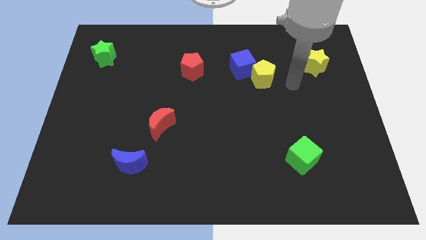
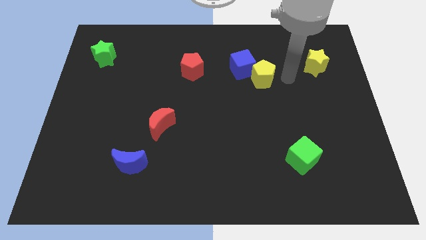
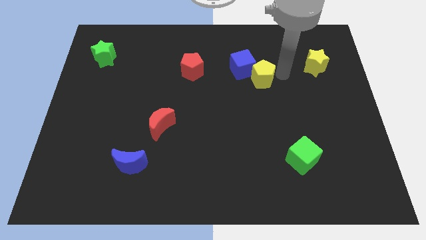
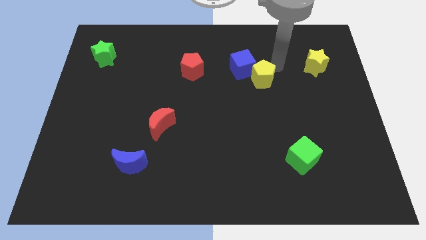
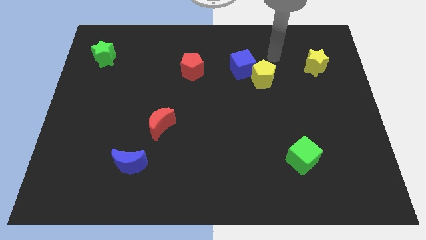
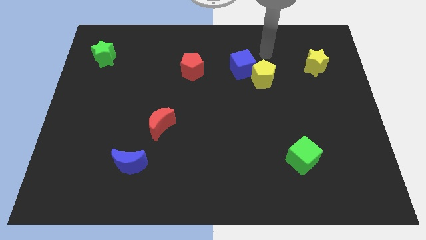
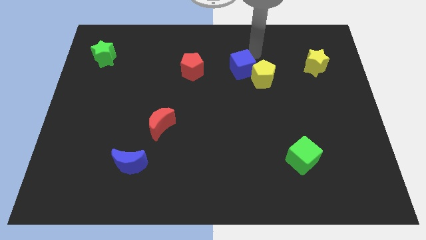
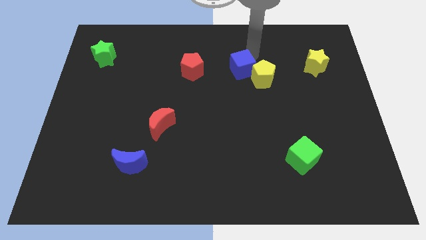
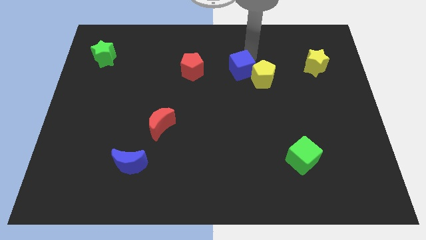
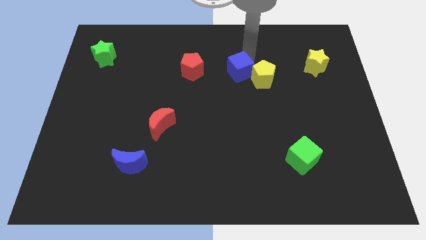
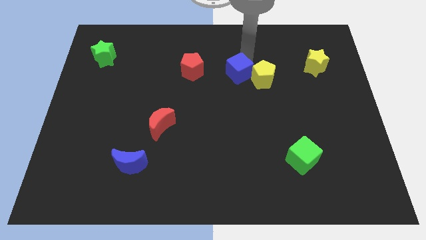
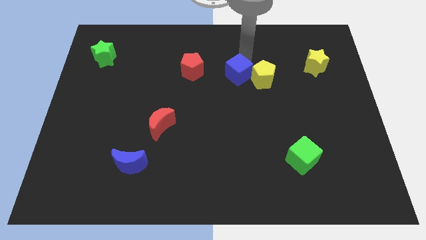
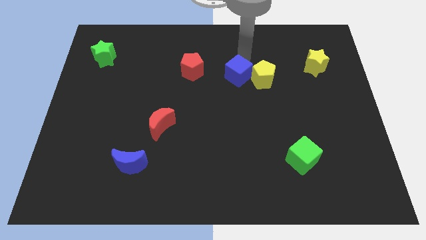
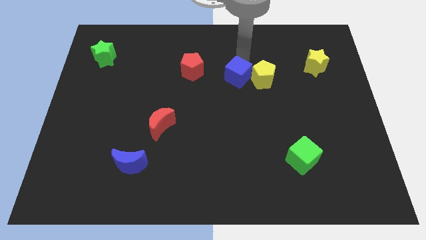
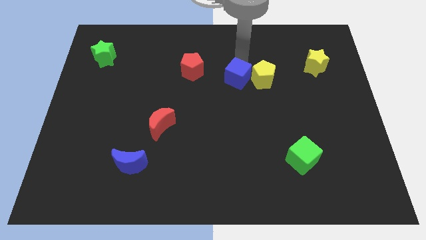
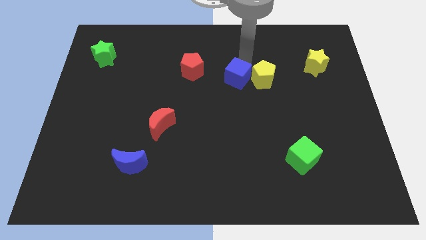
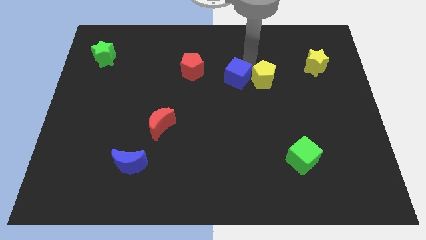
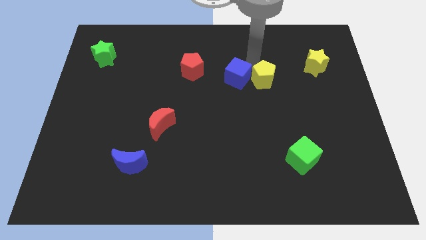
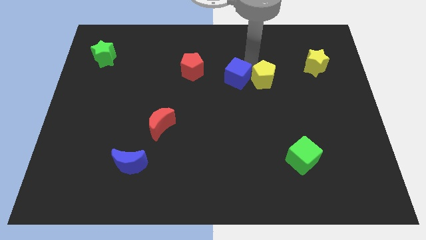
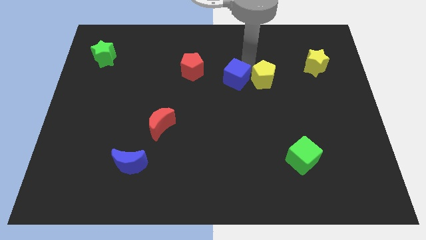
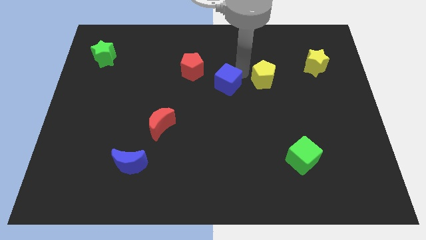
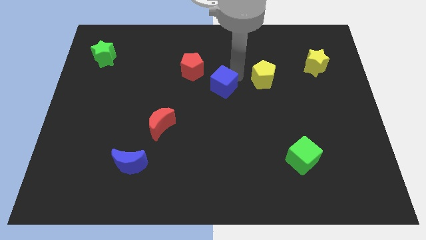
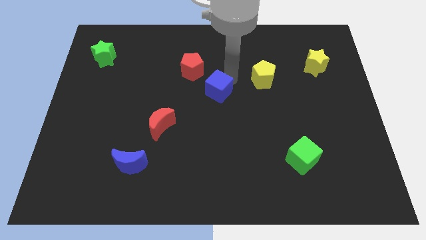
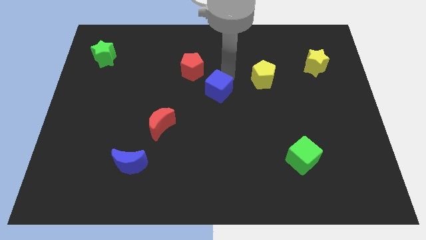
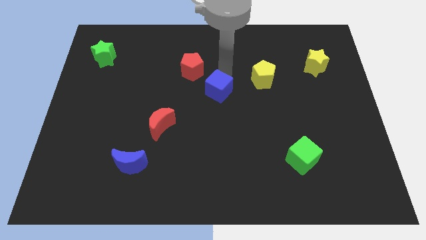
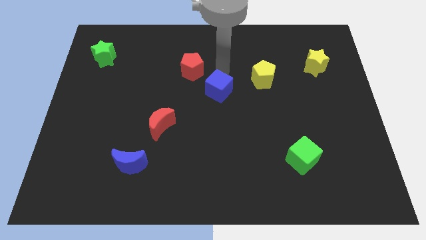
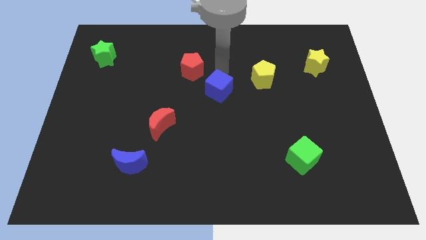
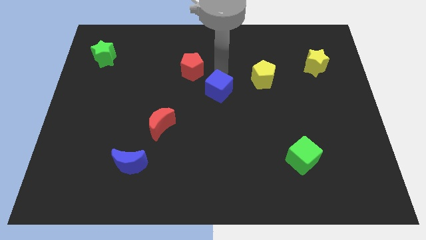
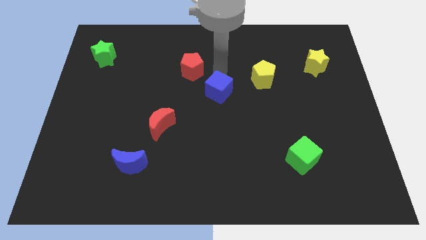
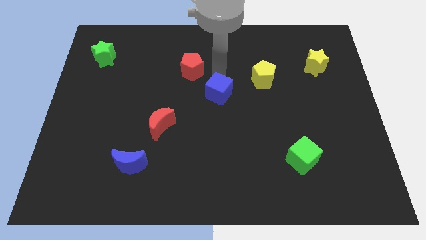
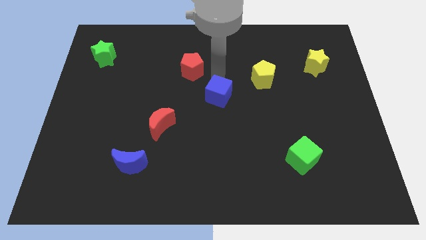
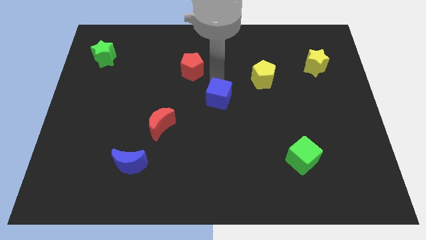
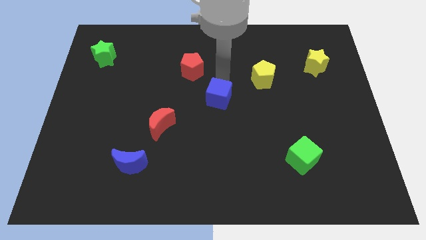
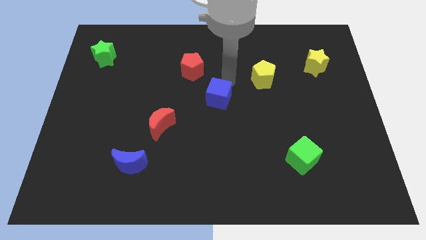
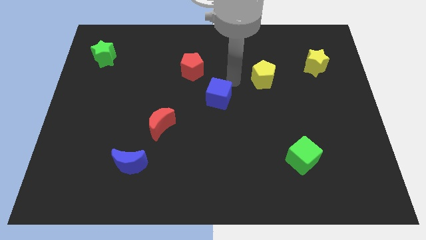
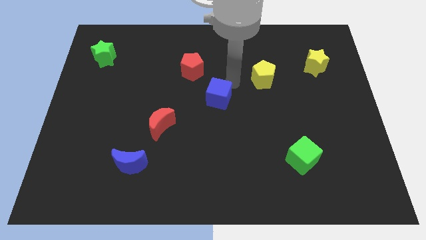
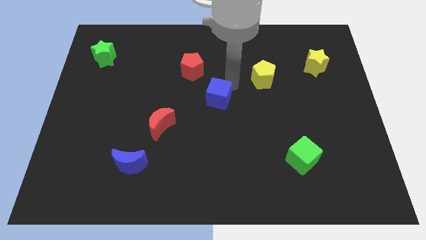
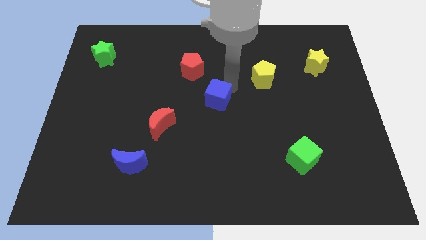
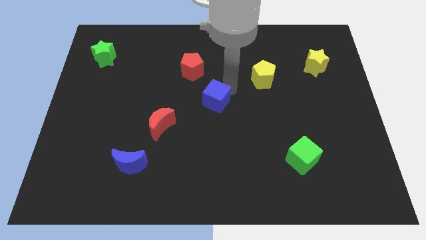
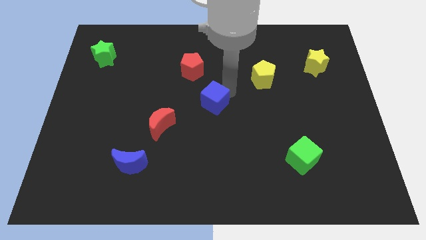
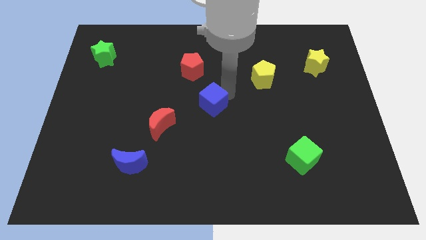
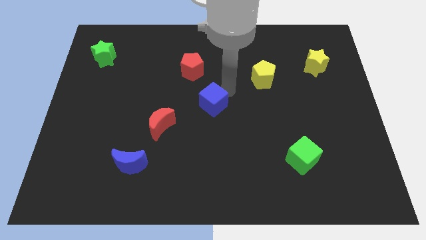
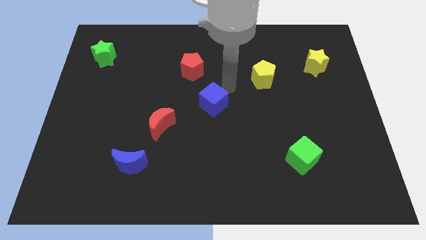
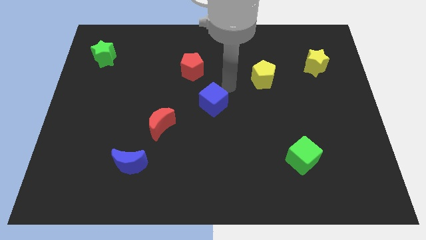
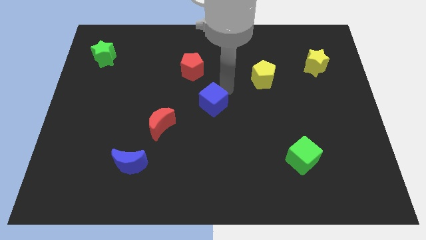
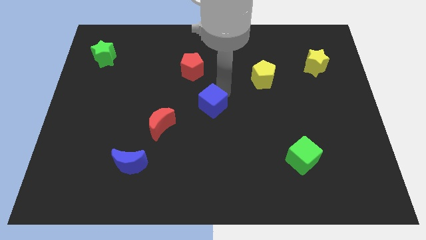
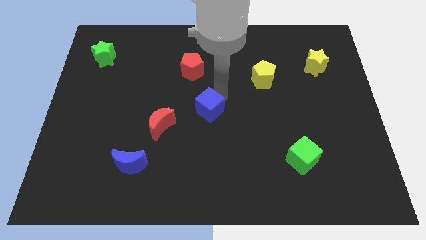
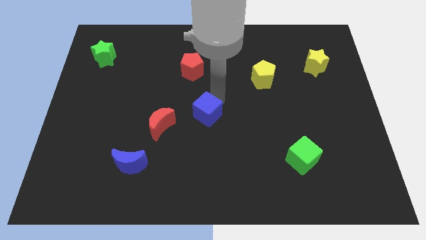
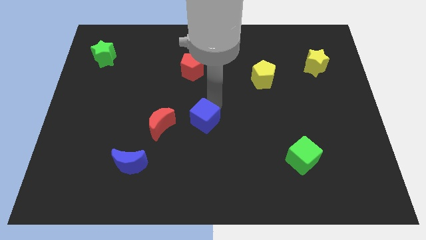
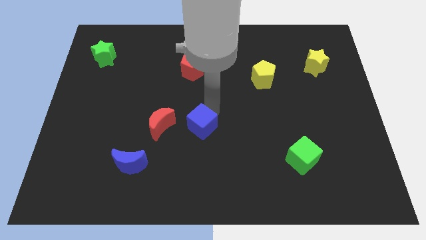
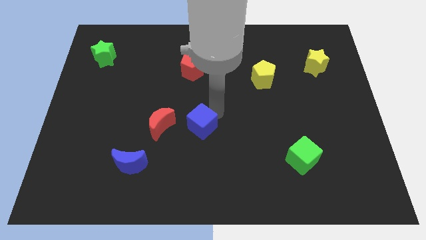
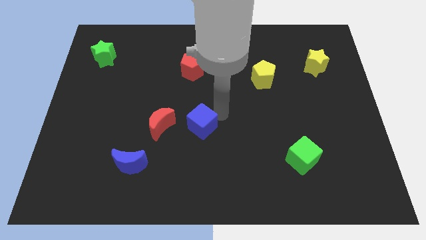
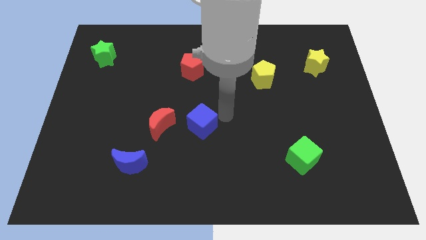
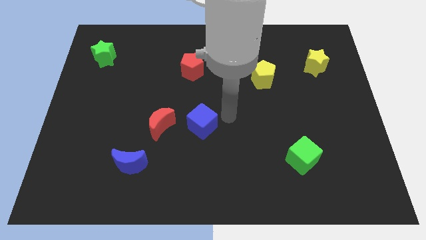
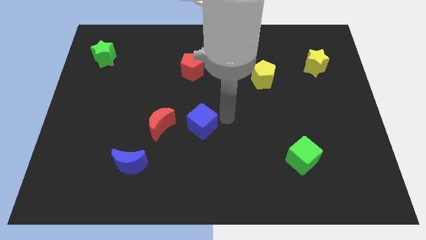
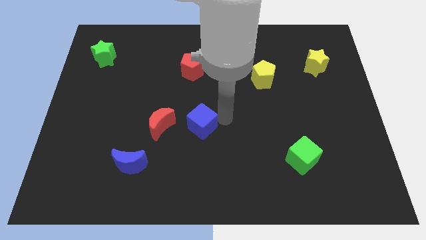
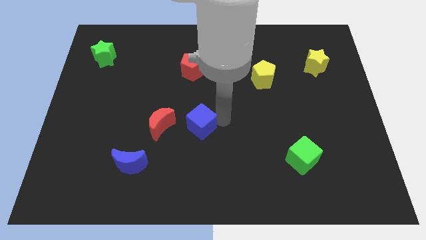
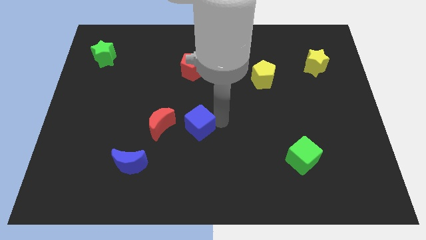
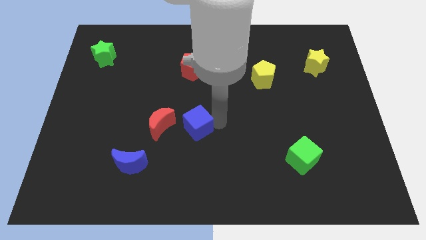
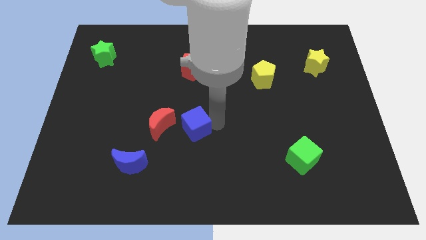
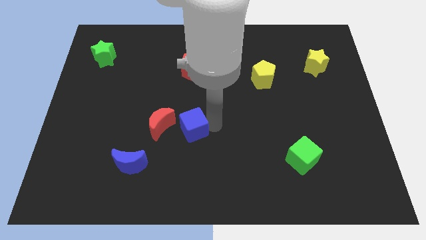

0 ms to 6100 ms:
slide the blue cube to the bottom right of the red moon

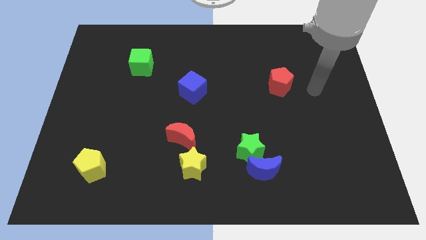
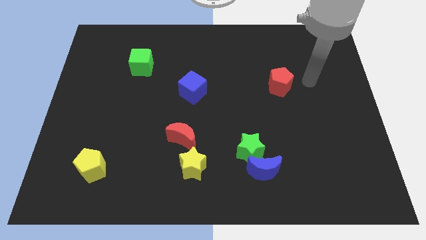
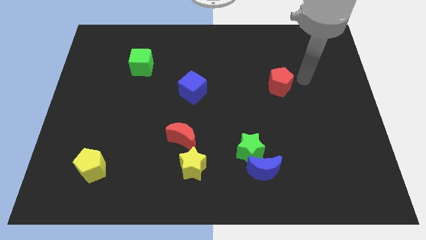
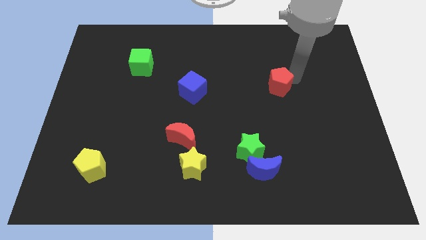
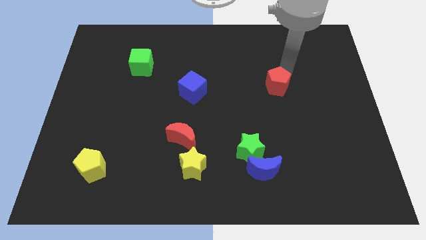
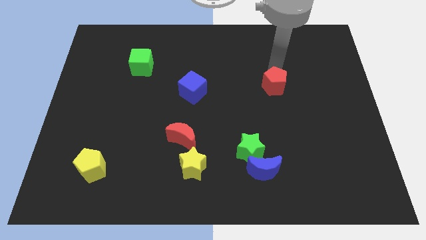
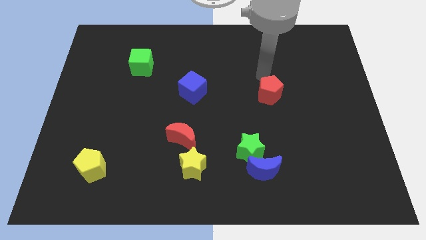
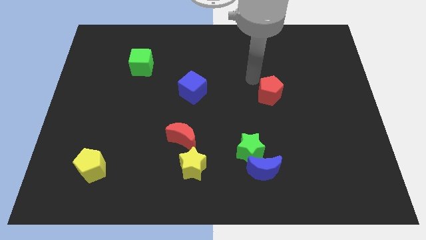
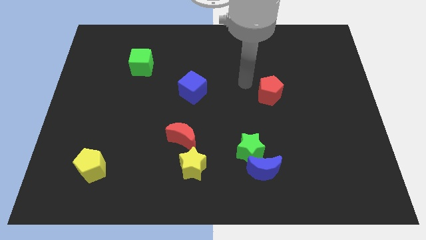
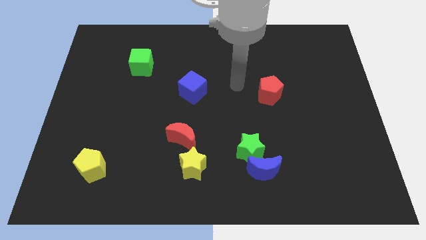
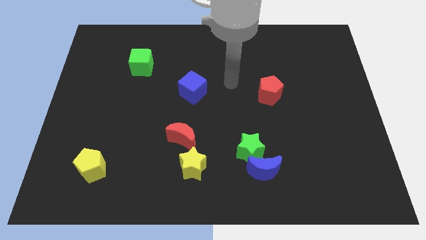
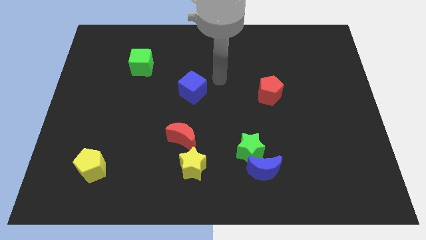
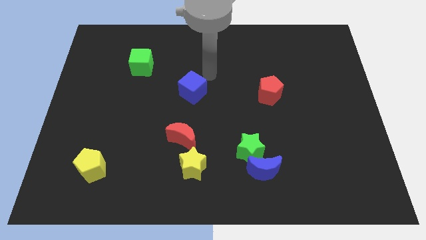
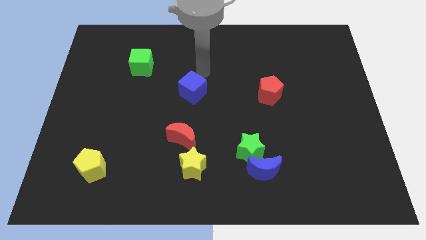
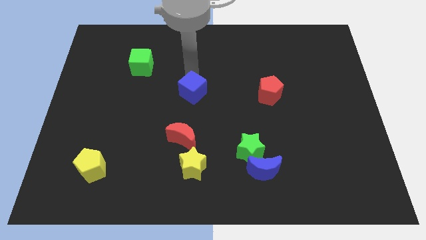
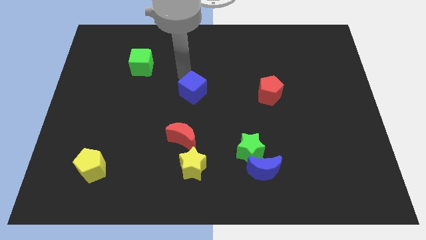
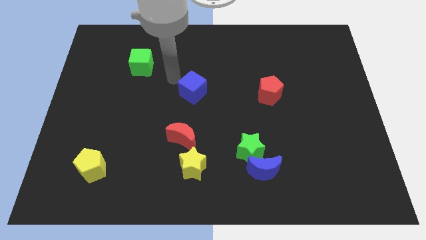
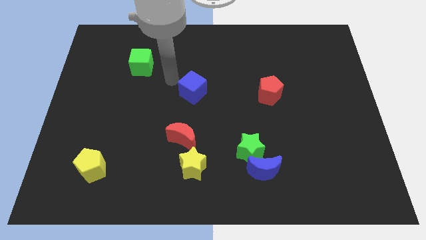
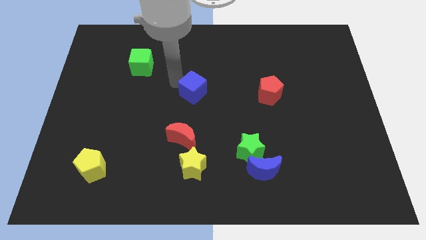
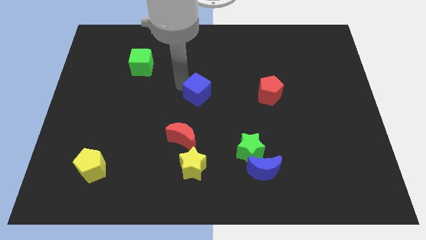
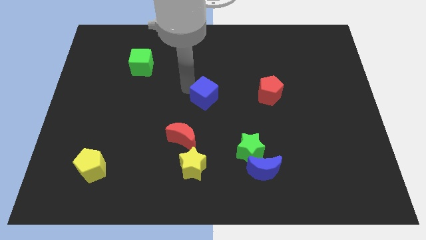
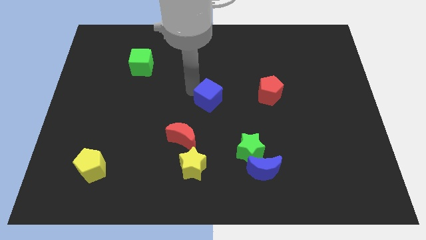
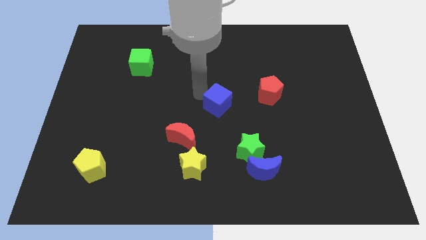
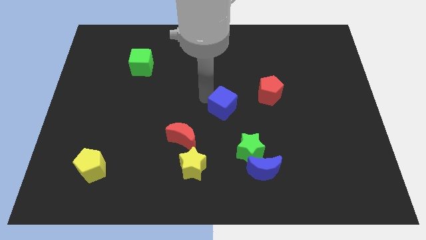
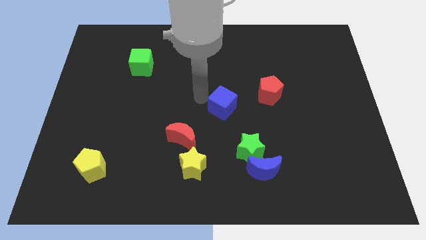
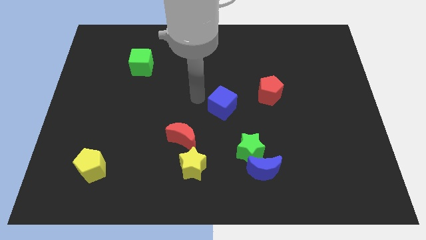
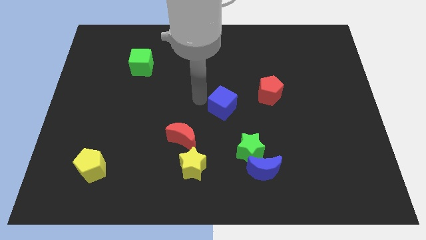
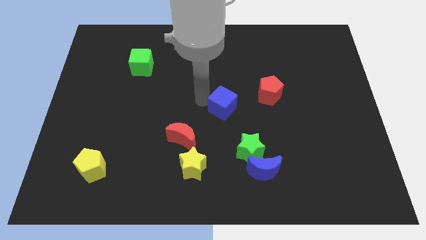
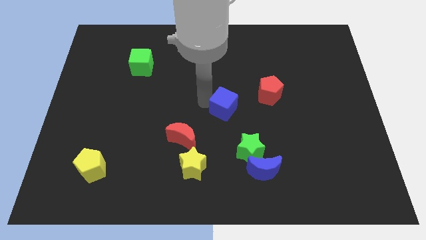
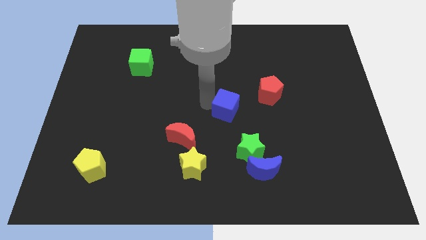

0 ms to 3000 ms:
slide the blue cube above the green star
